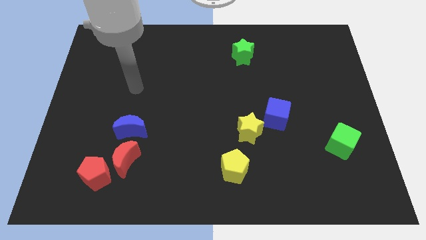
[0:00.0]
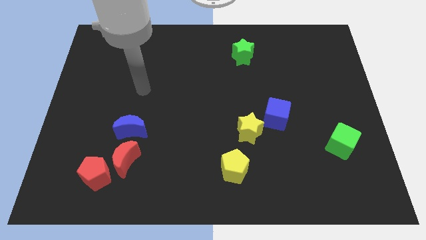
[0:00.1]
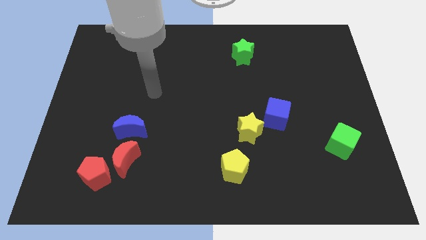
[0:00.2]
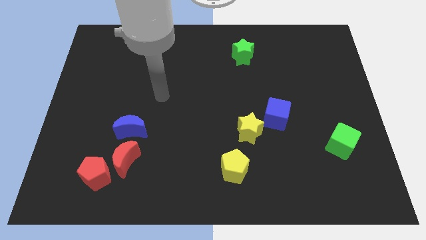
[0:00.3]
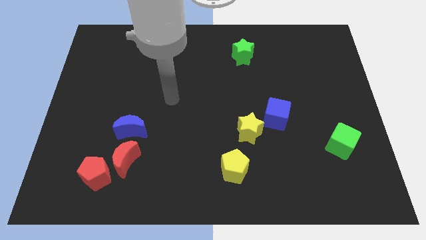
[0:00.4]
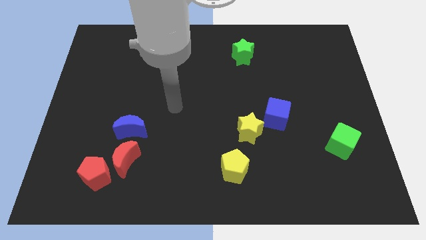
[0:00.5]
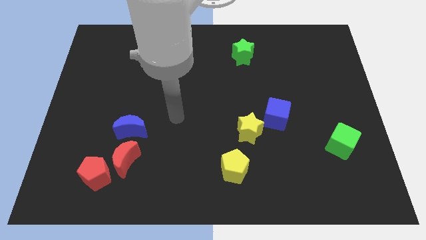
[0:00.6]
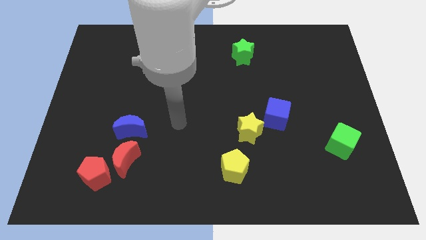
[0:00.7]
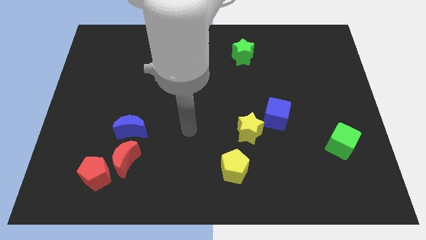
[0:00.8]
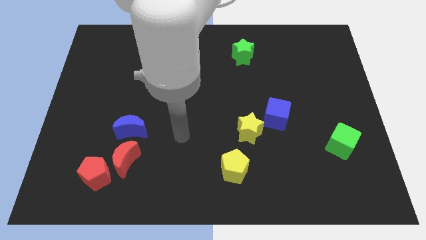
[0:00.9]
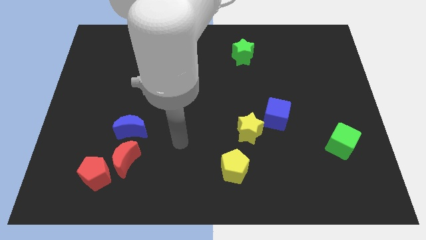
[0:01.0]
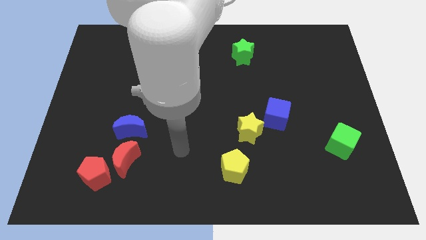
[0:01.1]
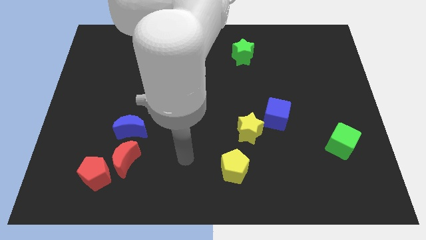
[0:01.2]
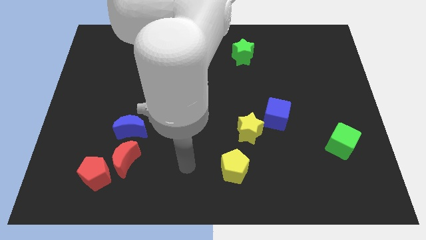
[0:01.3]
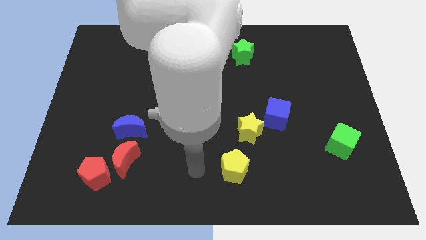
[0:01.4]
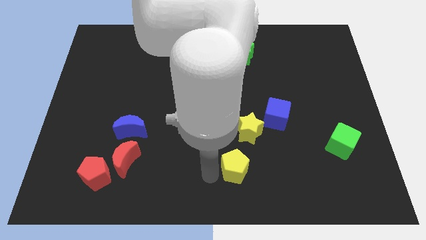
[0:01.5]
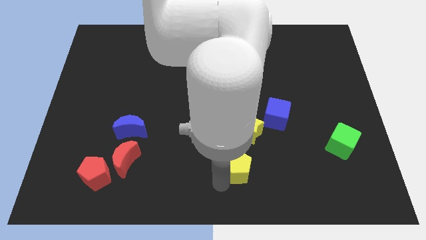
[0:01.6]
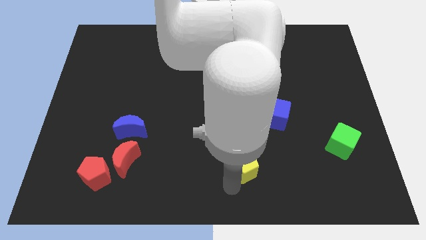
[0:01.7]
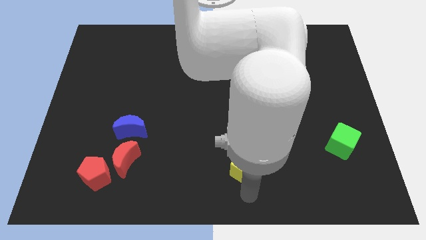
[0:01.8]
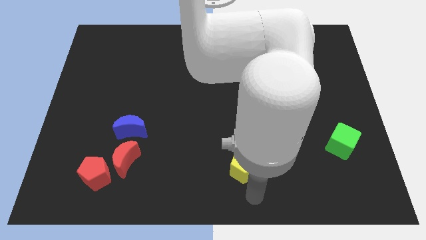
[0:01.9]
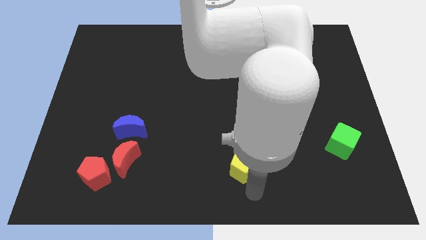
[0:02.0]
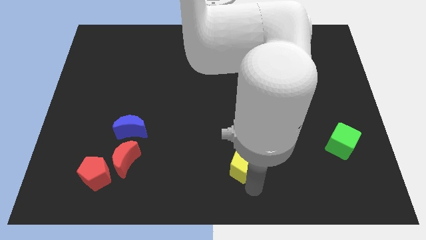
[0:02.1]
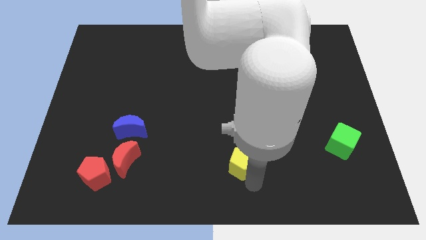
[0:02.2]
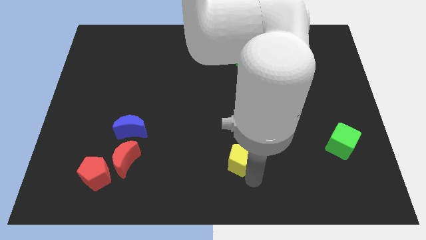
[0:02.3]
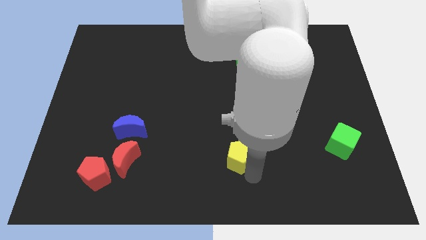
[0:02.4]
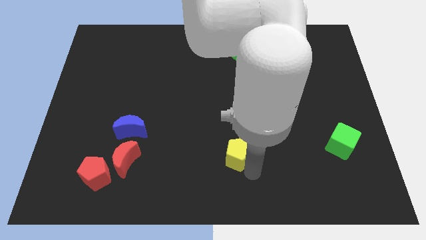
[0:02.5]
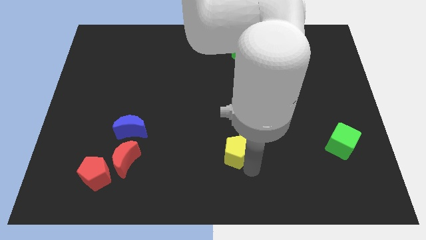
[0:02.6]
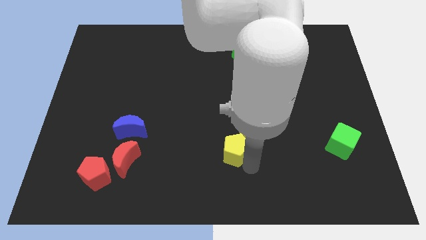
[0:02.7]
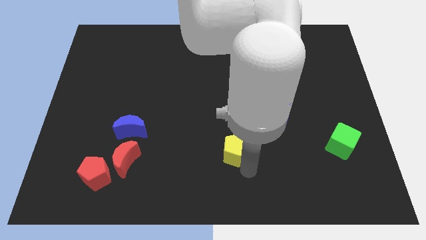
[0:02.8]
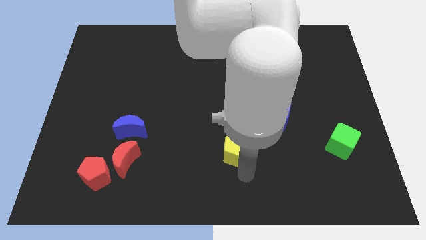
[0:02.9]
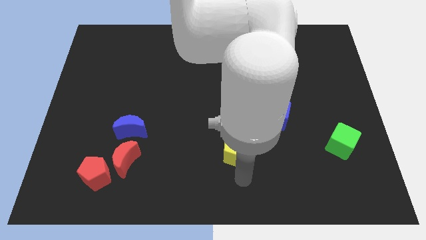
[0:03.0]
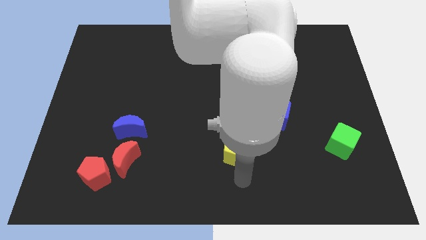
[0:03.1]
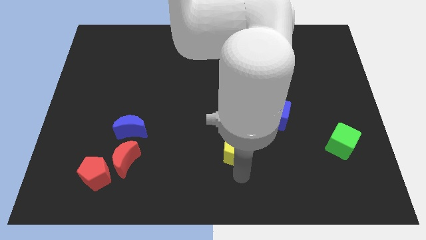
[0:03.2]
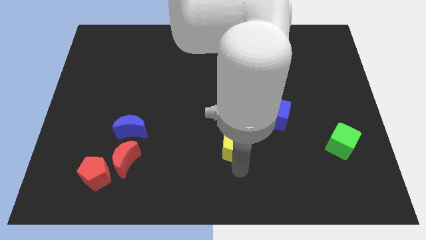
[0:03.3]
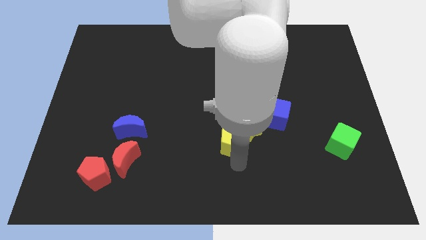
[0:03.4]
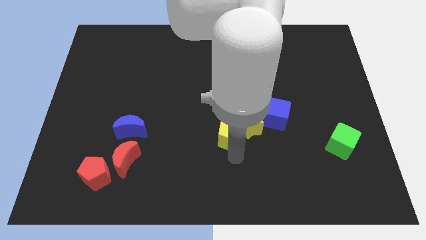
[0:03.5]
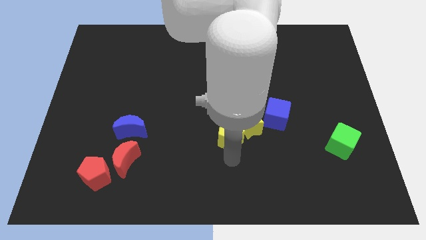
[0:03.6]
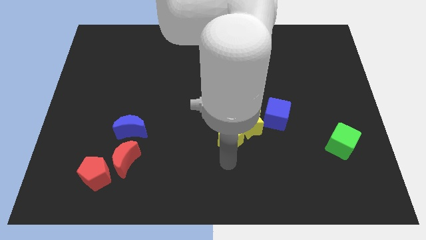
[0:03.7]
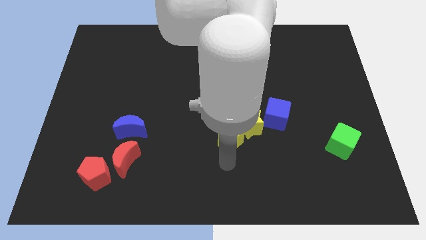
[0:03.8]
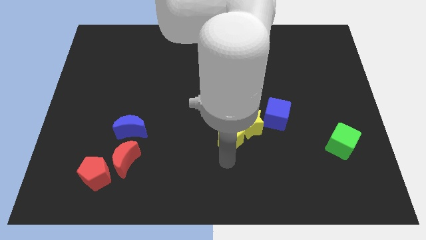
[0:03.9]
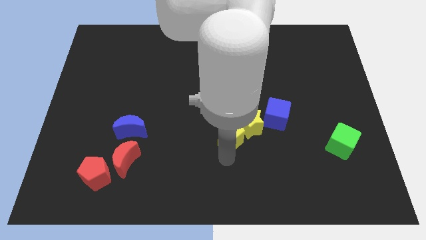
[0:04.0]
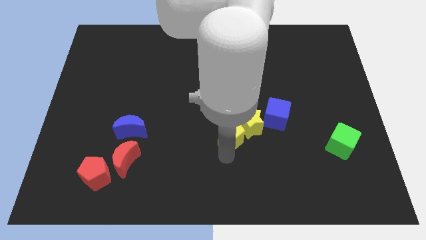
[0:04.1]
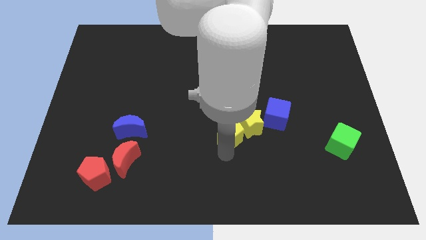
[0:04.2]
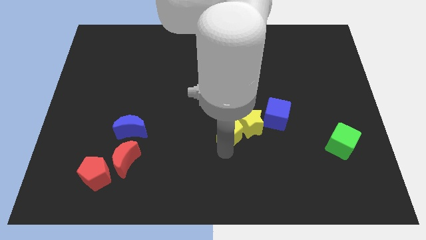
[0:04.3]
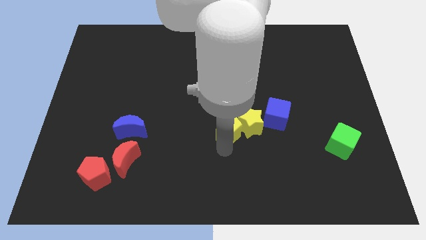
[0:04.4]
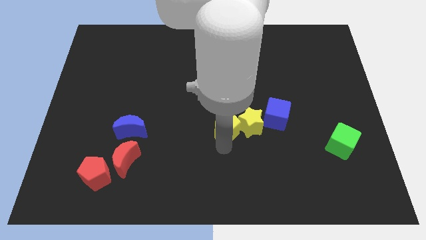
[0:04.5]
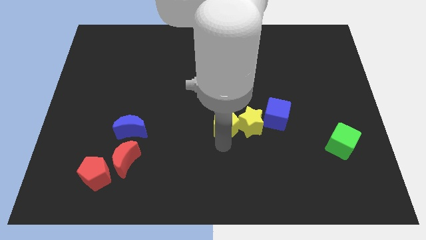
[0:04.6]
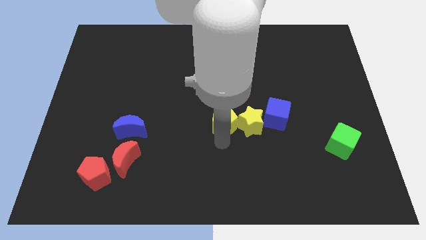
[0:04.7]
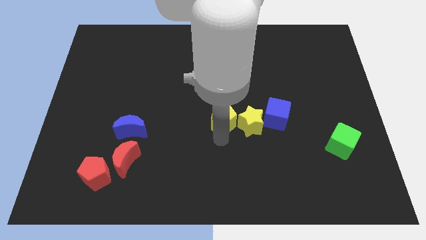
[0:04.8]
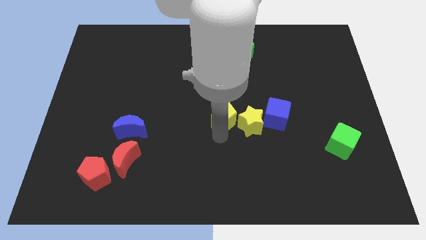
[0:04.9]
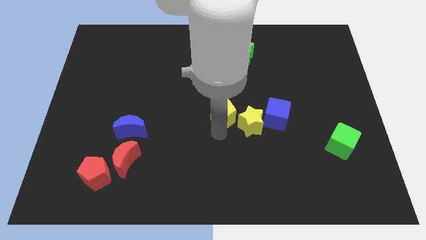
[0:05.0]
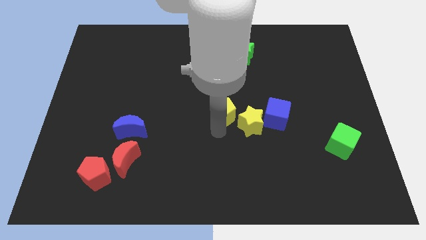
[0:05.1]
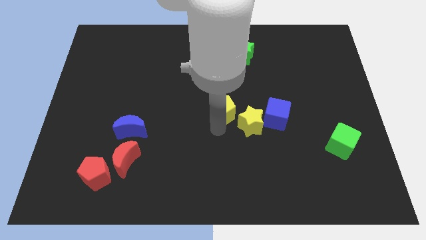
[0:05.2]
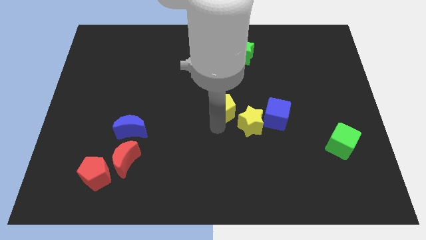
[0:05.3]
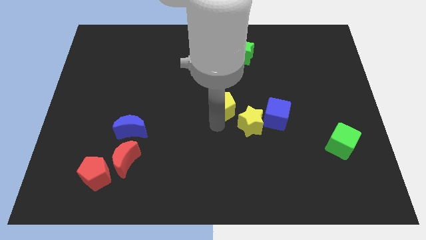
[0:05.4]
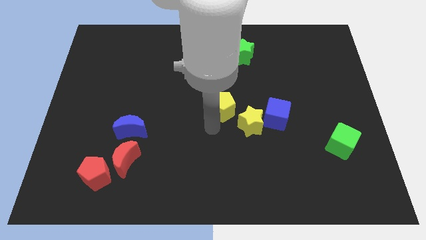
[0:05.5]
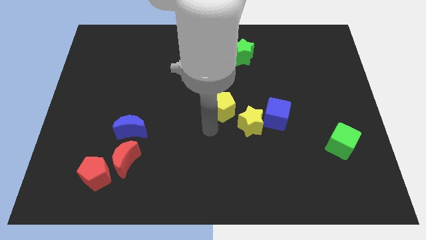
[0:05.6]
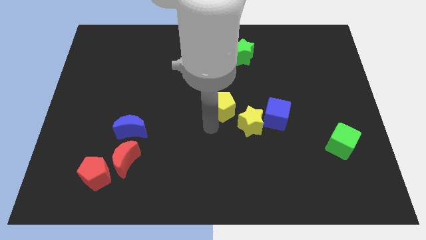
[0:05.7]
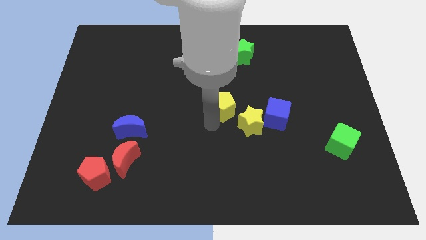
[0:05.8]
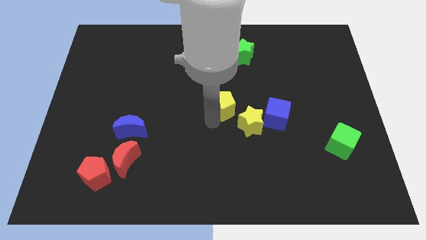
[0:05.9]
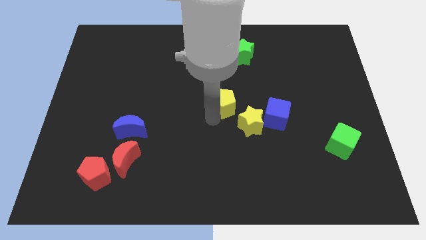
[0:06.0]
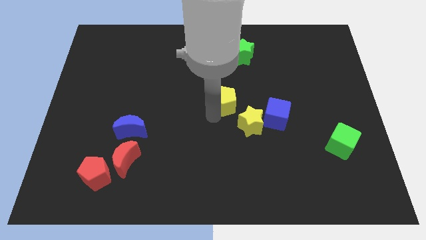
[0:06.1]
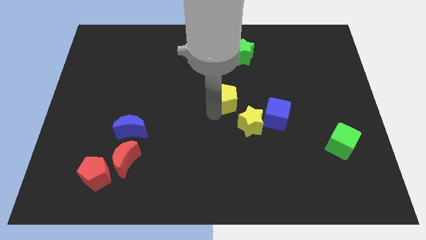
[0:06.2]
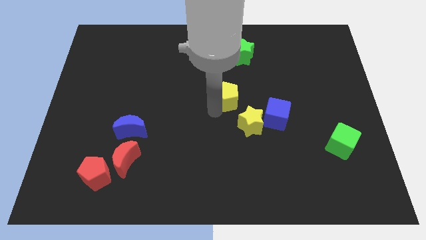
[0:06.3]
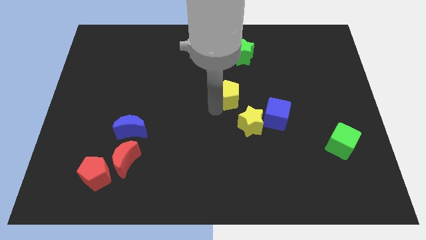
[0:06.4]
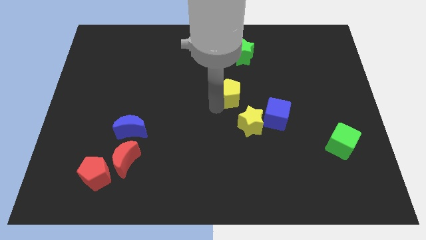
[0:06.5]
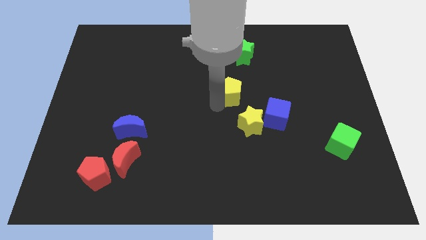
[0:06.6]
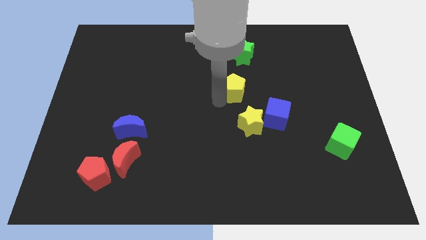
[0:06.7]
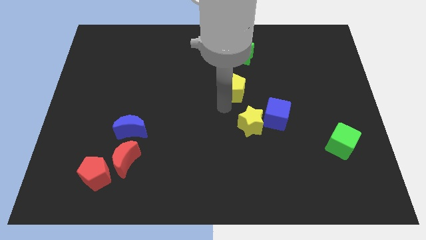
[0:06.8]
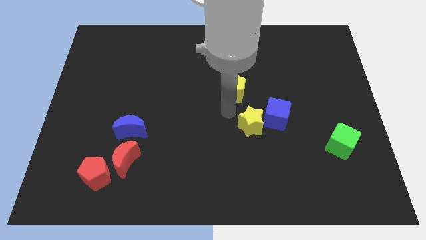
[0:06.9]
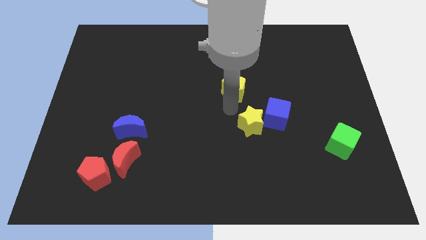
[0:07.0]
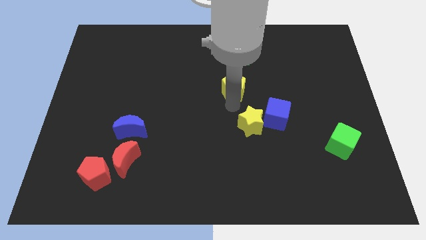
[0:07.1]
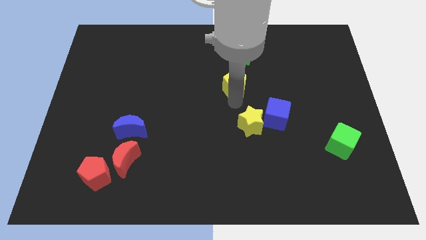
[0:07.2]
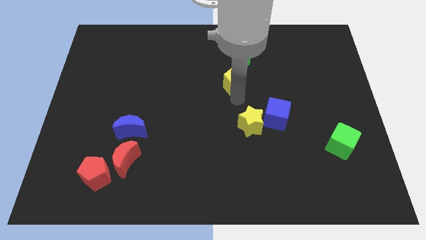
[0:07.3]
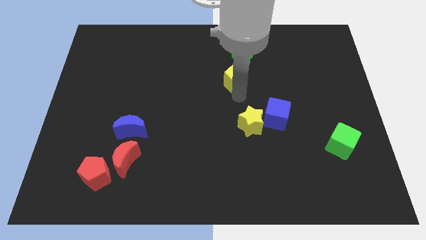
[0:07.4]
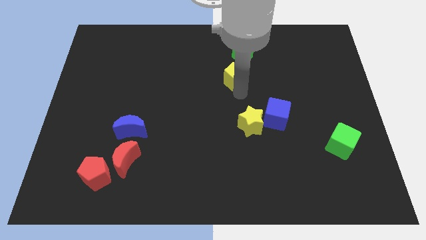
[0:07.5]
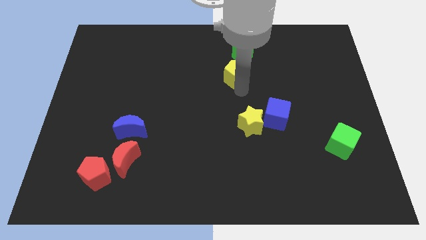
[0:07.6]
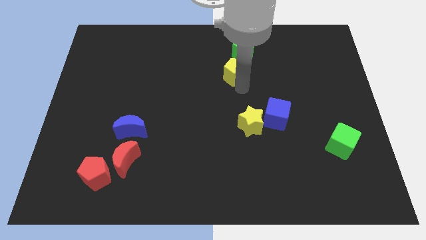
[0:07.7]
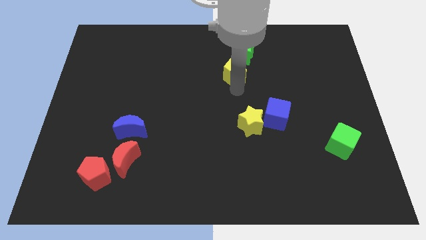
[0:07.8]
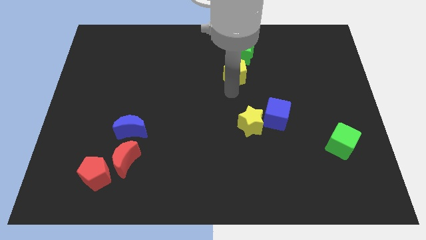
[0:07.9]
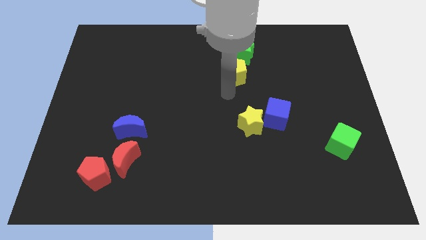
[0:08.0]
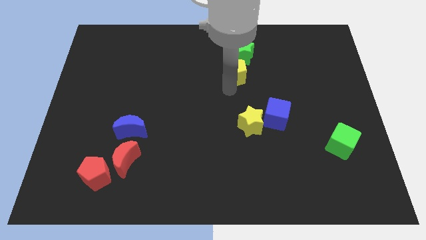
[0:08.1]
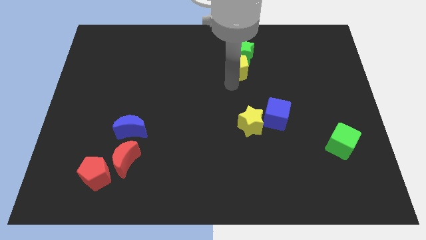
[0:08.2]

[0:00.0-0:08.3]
move the yellow pentagon close to the green star
